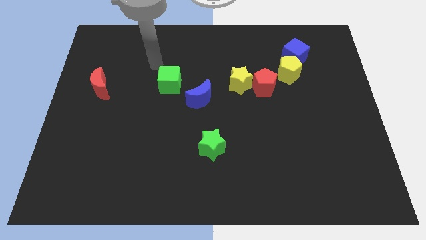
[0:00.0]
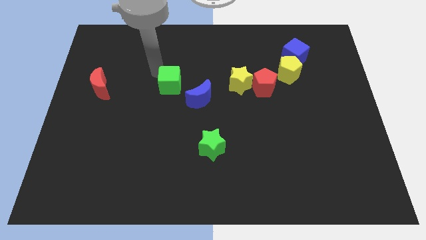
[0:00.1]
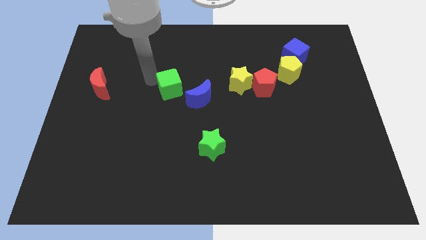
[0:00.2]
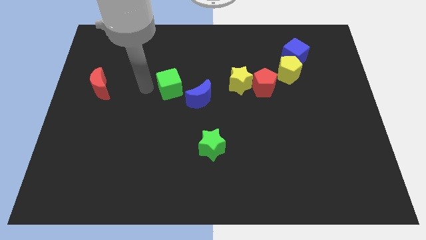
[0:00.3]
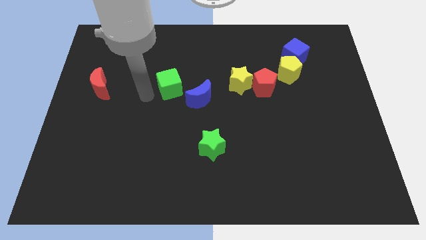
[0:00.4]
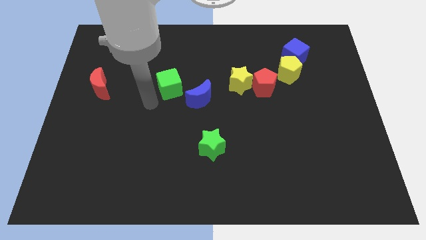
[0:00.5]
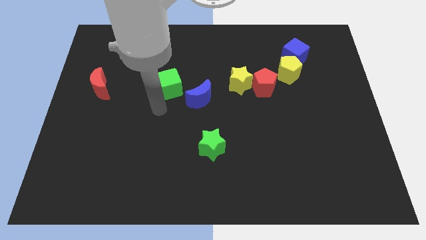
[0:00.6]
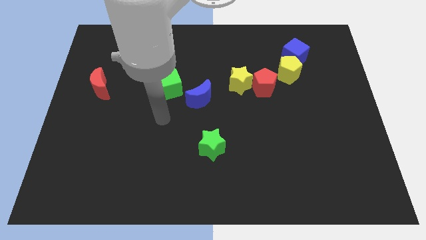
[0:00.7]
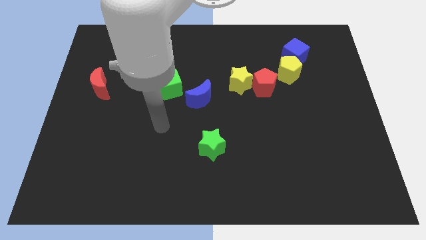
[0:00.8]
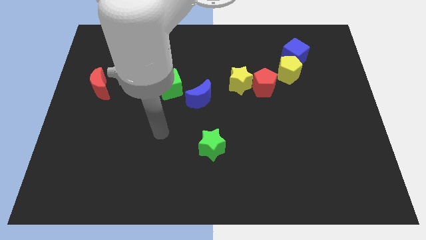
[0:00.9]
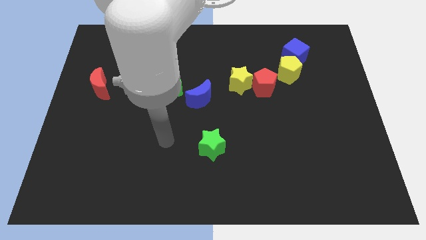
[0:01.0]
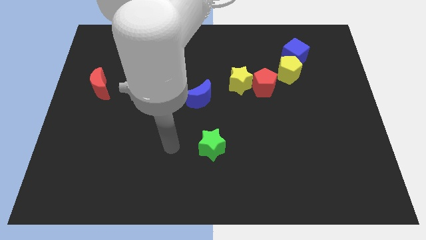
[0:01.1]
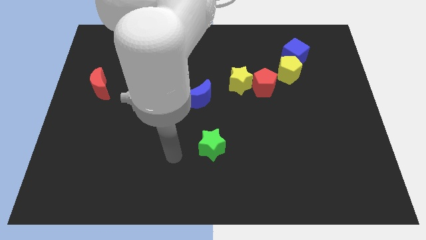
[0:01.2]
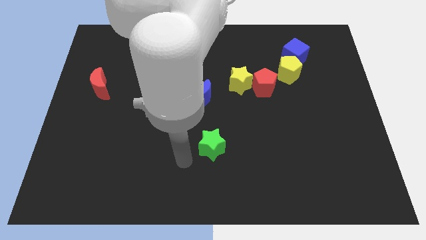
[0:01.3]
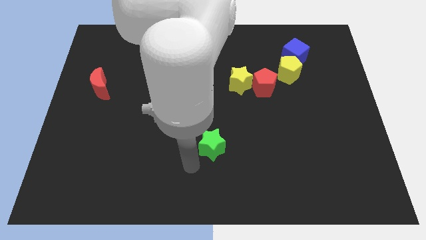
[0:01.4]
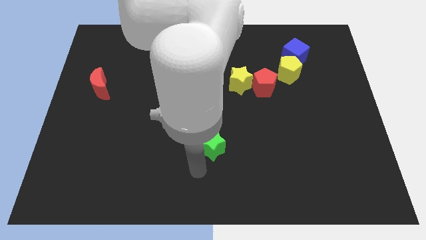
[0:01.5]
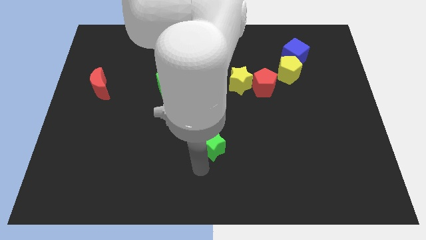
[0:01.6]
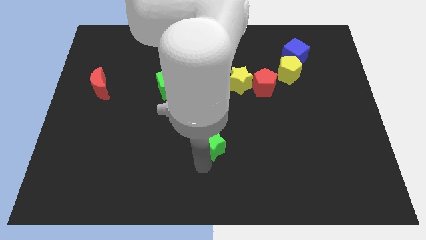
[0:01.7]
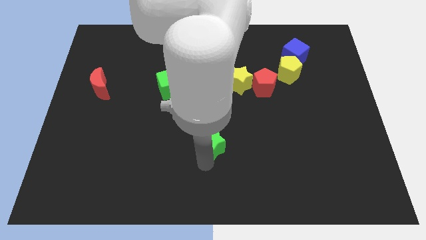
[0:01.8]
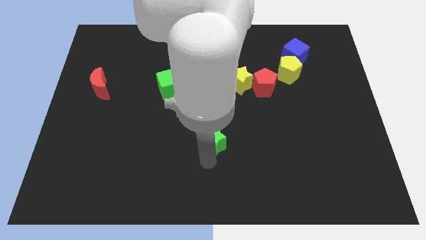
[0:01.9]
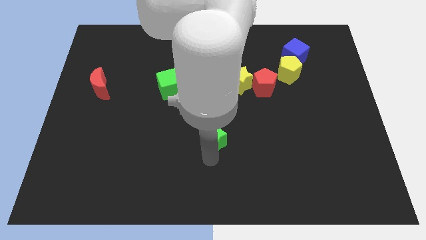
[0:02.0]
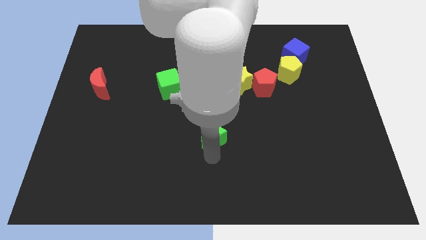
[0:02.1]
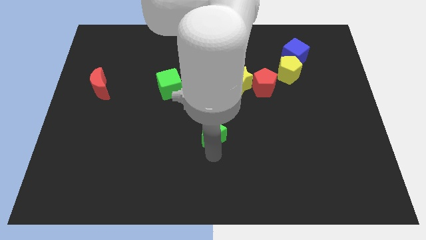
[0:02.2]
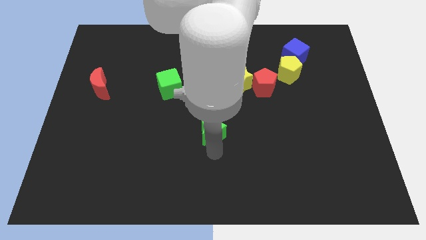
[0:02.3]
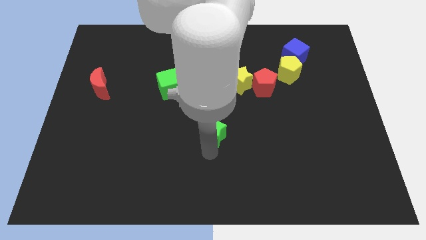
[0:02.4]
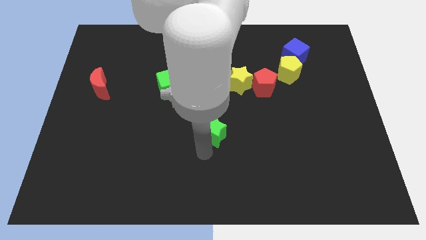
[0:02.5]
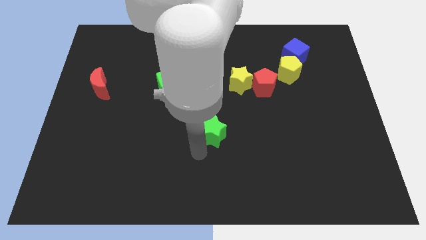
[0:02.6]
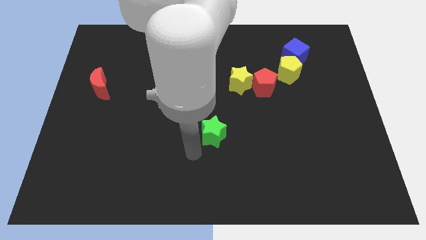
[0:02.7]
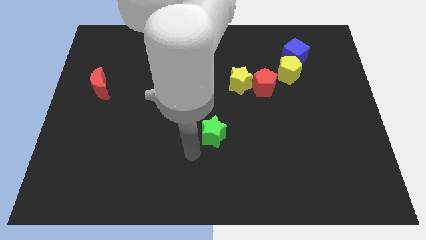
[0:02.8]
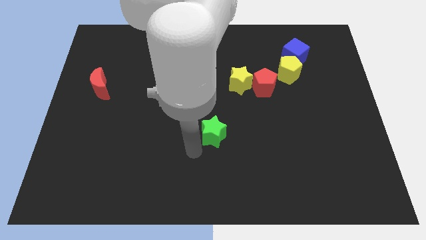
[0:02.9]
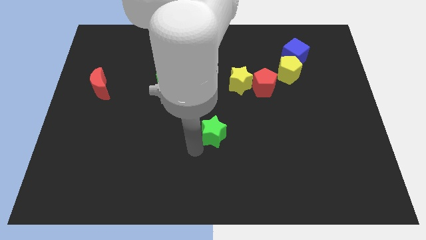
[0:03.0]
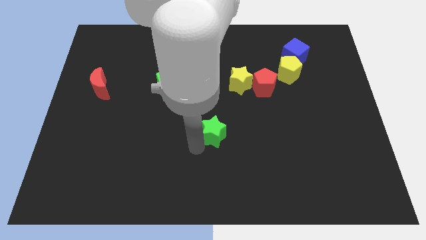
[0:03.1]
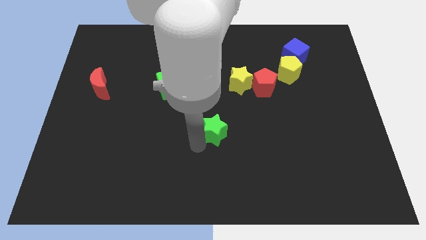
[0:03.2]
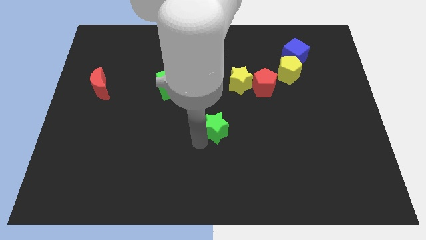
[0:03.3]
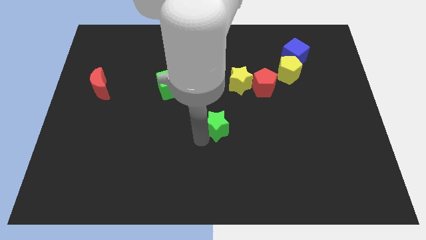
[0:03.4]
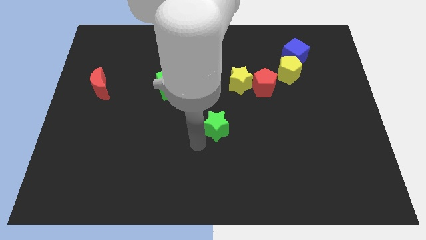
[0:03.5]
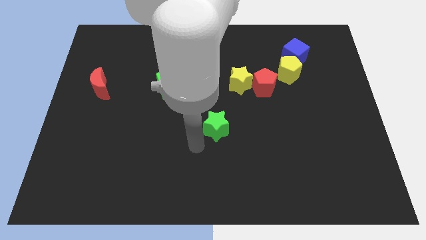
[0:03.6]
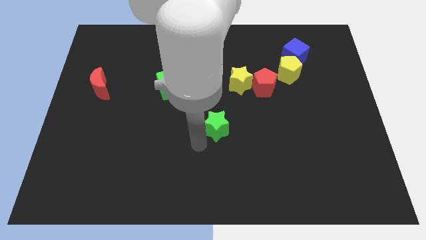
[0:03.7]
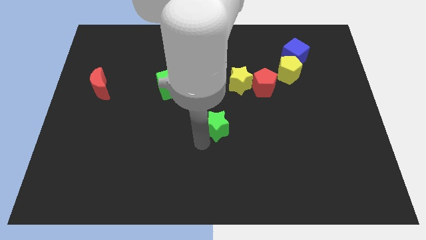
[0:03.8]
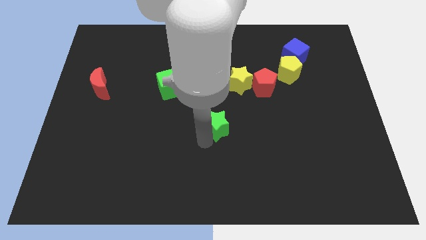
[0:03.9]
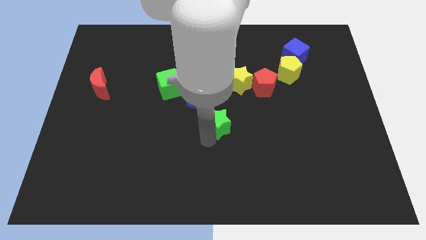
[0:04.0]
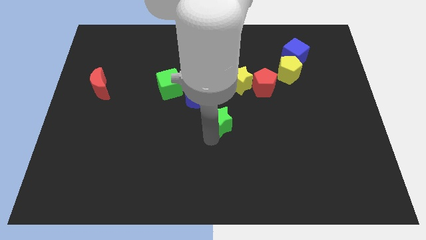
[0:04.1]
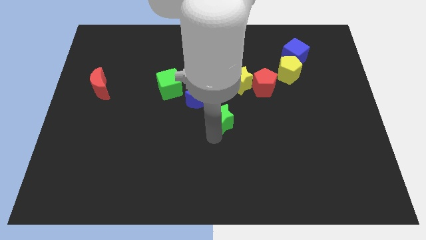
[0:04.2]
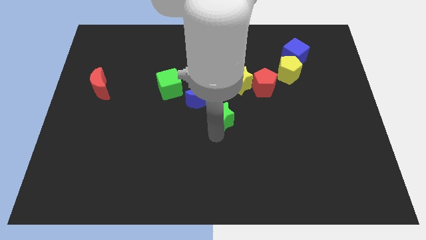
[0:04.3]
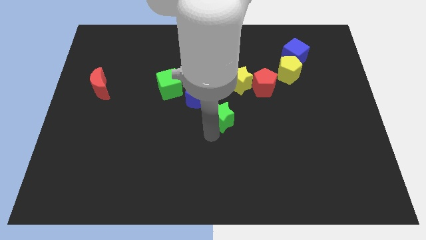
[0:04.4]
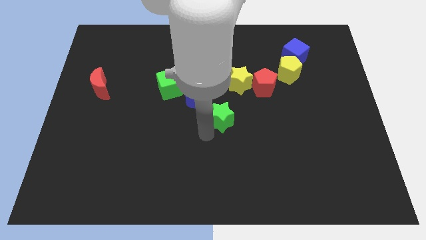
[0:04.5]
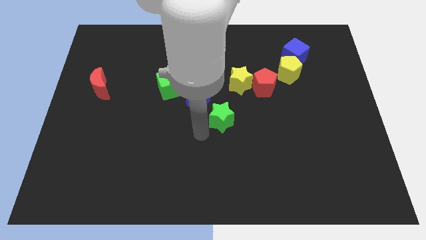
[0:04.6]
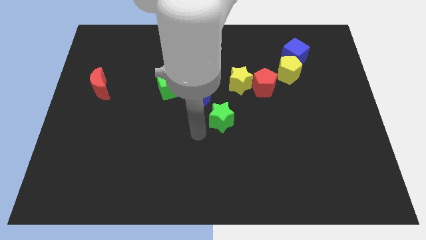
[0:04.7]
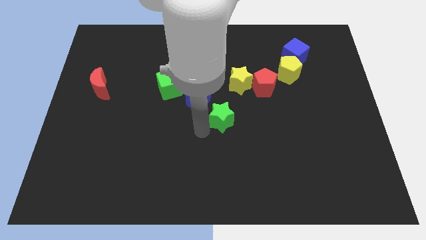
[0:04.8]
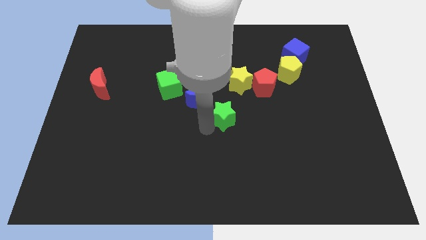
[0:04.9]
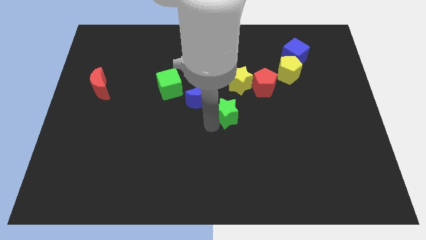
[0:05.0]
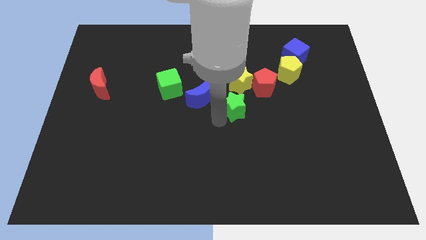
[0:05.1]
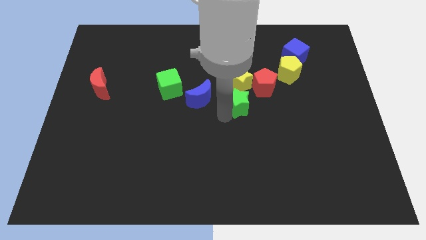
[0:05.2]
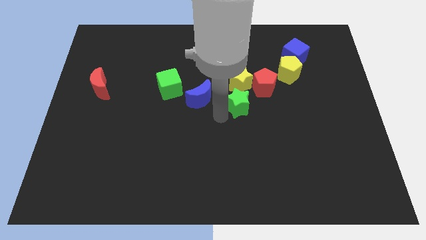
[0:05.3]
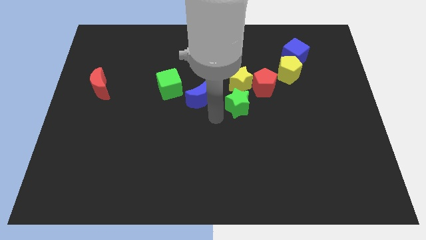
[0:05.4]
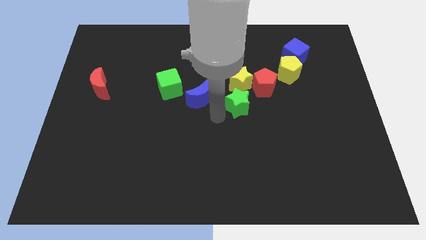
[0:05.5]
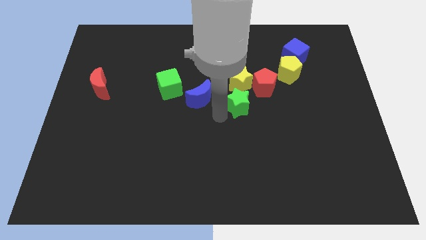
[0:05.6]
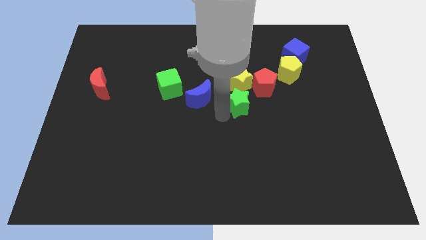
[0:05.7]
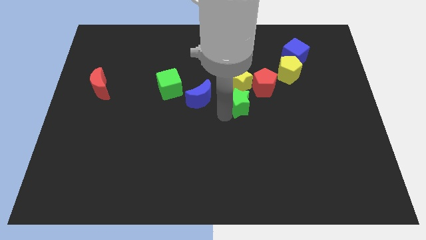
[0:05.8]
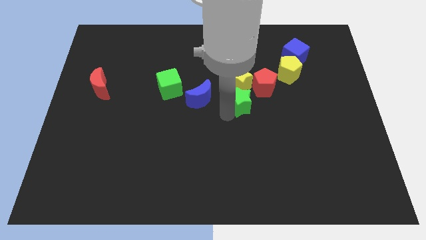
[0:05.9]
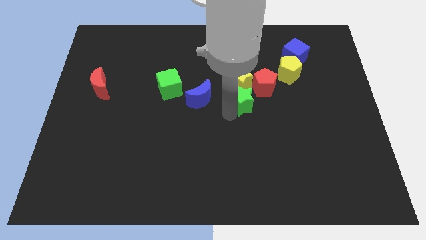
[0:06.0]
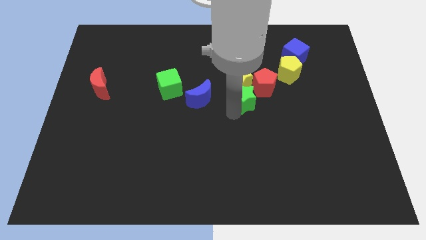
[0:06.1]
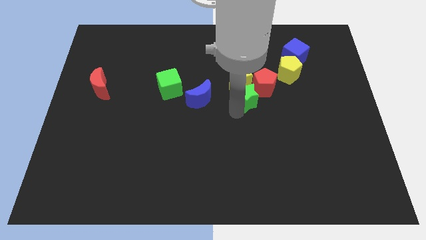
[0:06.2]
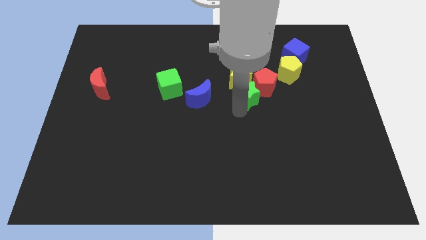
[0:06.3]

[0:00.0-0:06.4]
push the green star close to the red pentagon

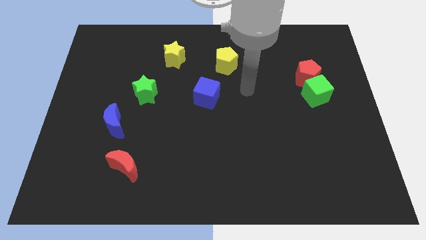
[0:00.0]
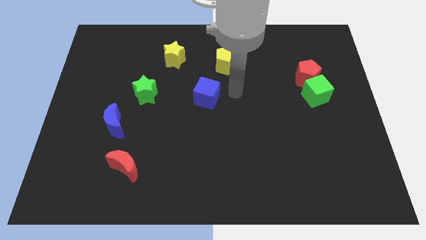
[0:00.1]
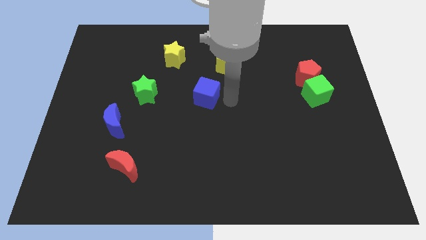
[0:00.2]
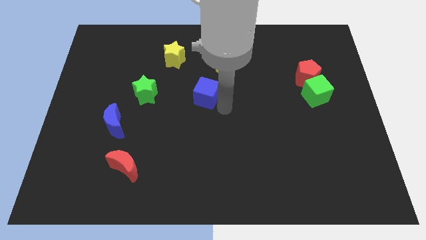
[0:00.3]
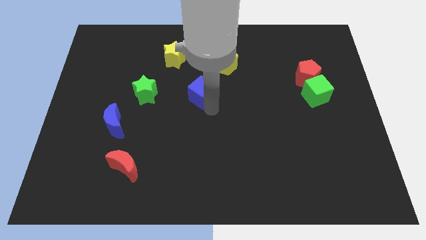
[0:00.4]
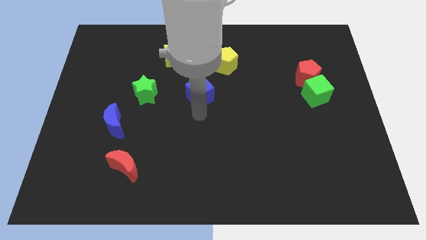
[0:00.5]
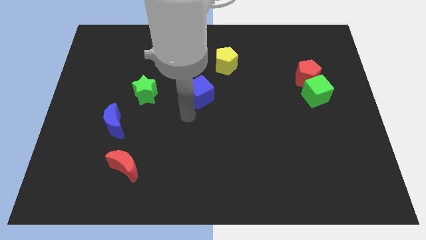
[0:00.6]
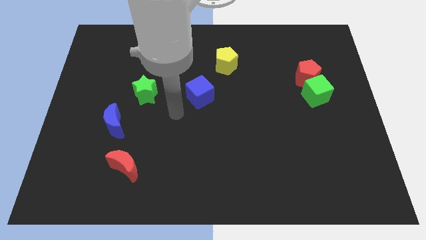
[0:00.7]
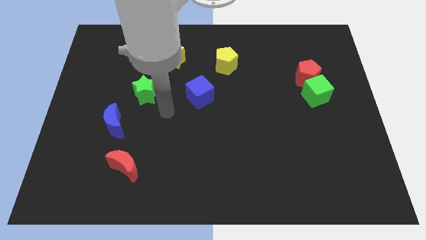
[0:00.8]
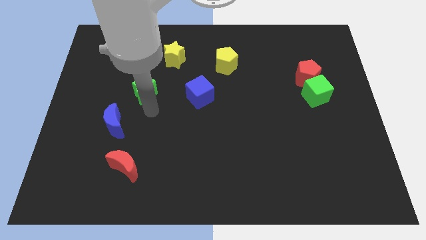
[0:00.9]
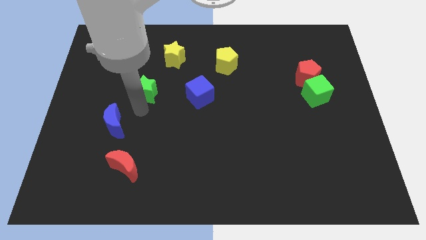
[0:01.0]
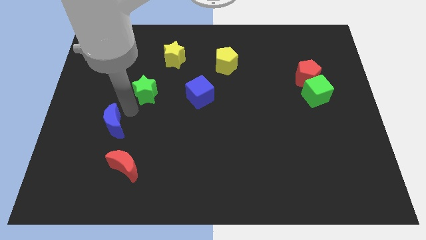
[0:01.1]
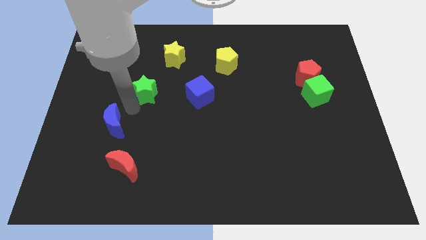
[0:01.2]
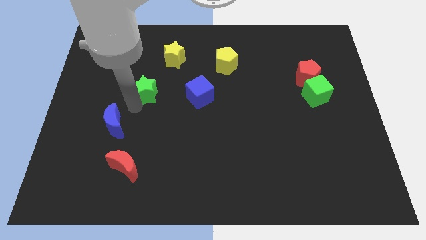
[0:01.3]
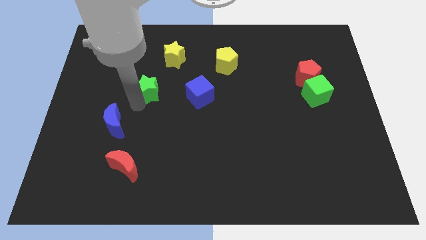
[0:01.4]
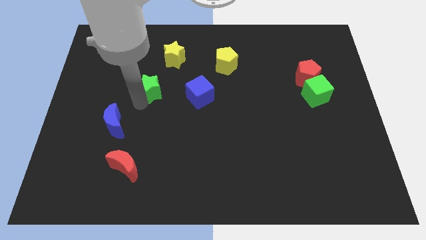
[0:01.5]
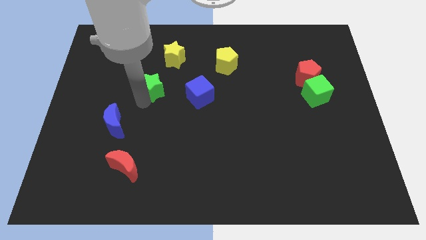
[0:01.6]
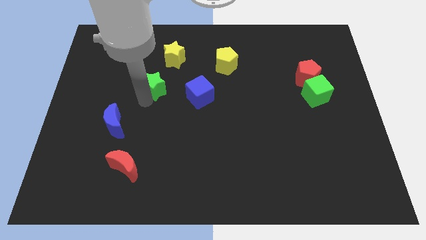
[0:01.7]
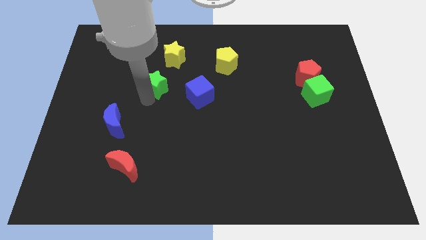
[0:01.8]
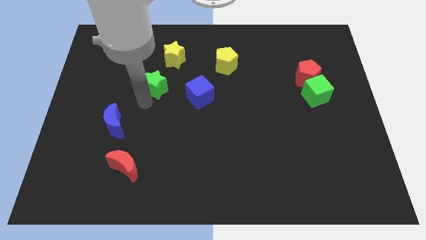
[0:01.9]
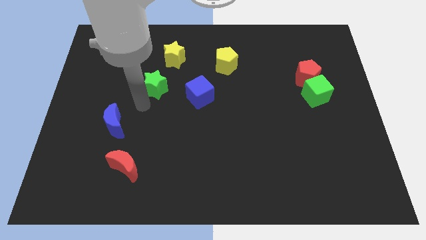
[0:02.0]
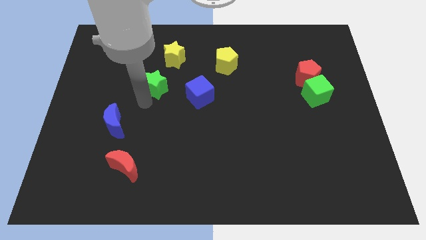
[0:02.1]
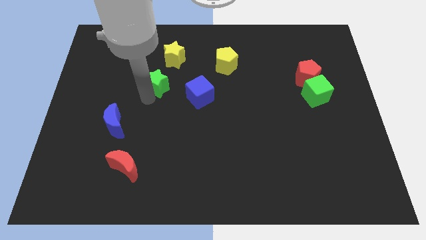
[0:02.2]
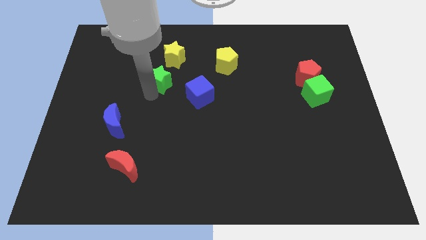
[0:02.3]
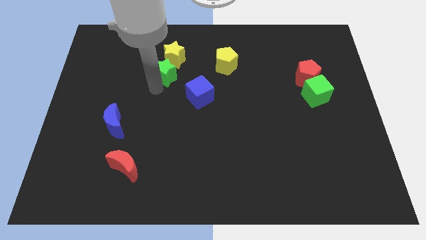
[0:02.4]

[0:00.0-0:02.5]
put the green star next to the yellow star
